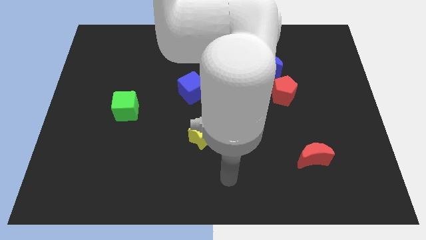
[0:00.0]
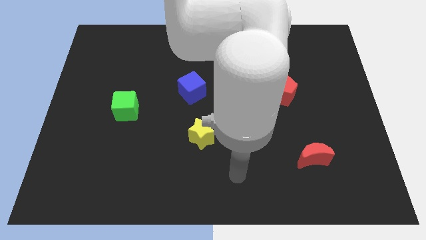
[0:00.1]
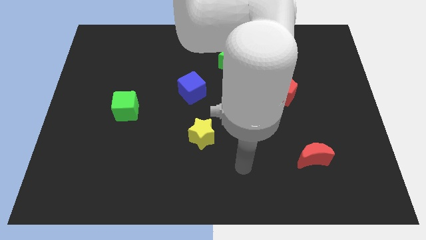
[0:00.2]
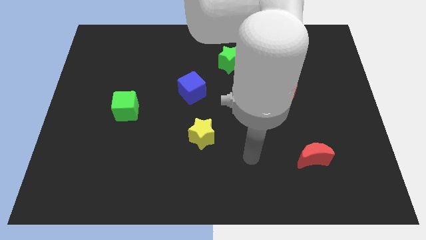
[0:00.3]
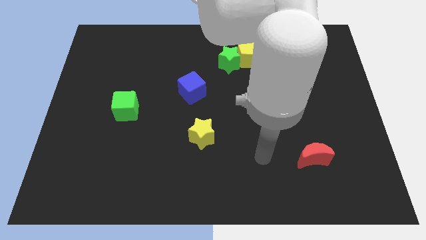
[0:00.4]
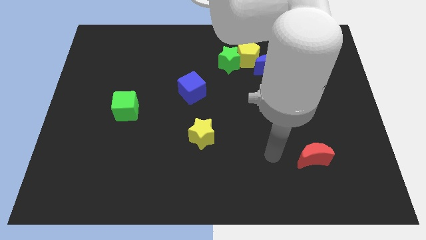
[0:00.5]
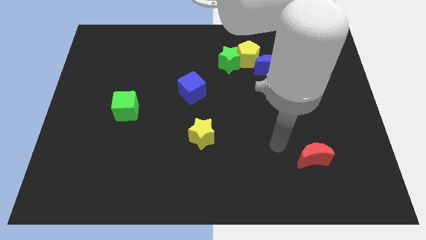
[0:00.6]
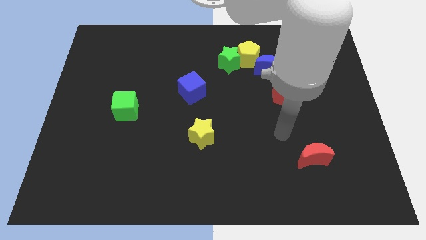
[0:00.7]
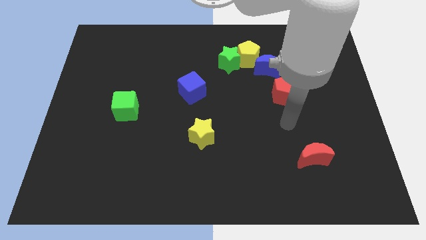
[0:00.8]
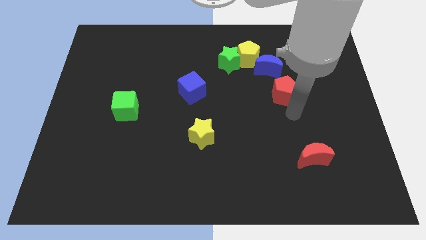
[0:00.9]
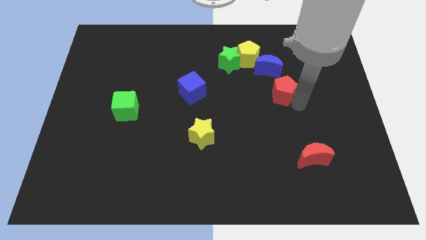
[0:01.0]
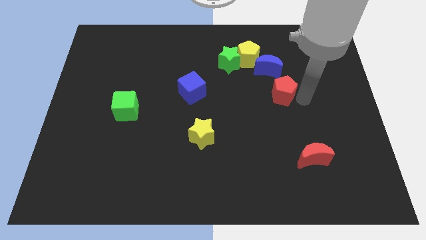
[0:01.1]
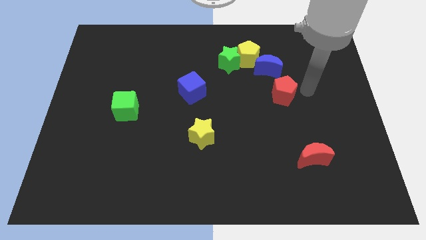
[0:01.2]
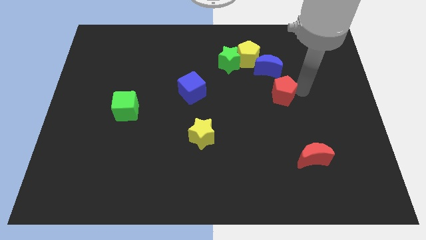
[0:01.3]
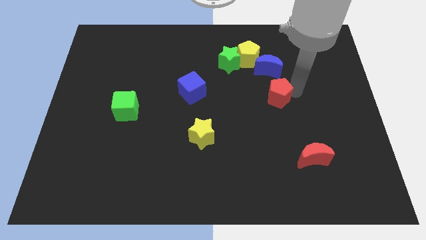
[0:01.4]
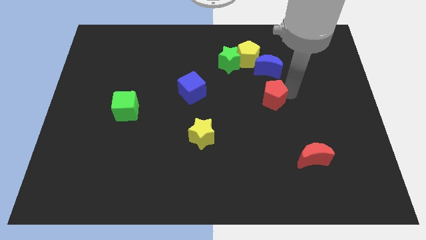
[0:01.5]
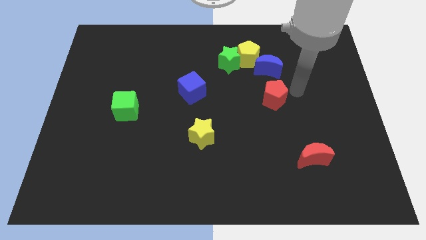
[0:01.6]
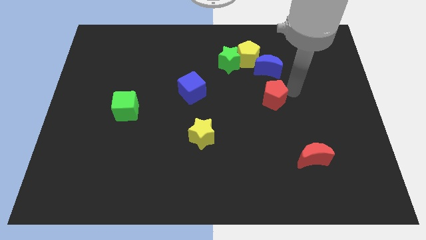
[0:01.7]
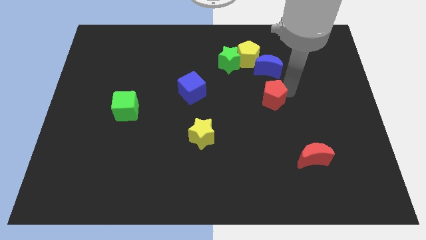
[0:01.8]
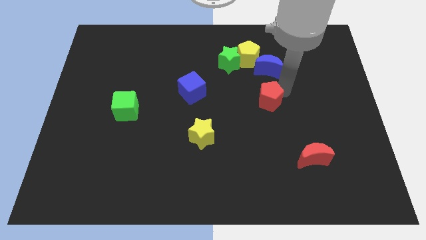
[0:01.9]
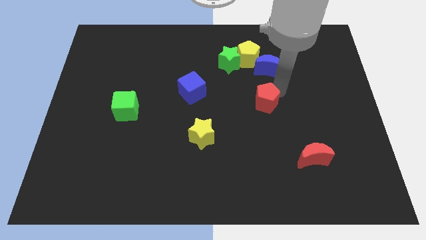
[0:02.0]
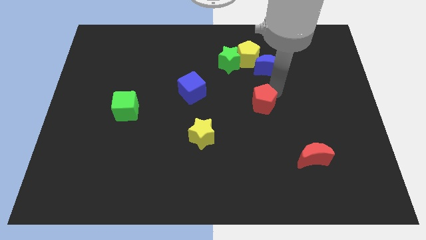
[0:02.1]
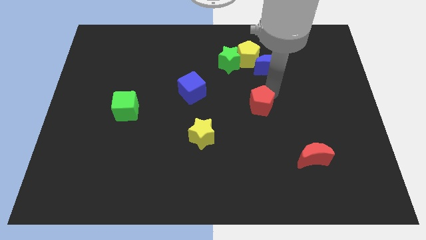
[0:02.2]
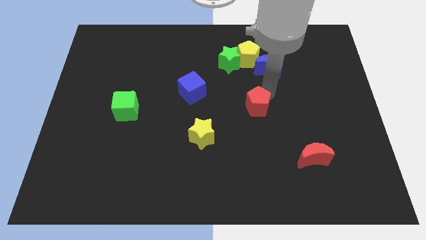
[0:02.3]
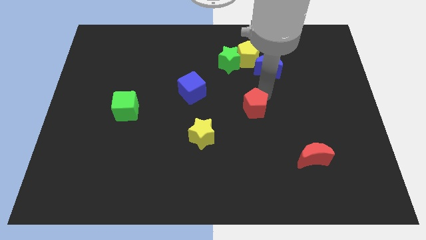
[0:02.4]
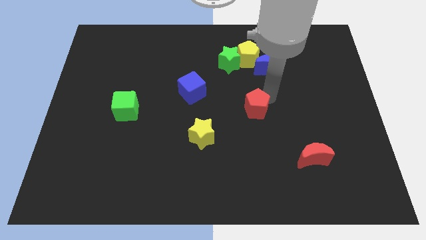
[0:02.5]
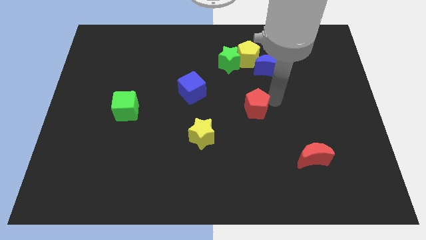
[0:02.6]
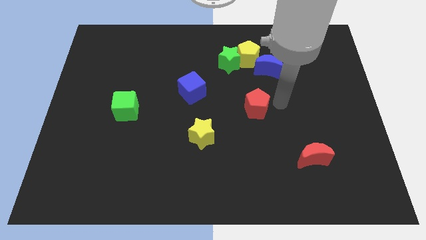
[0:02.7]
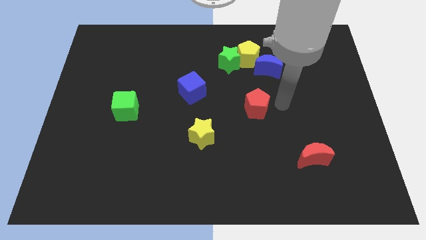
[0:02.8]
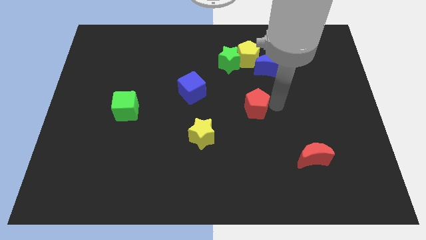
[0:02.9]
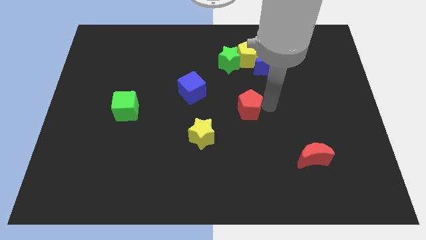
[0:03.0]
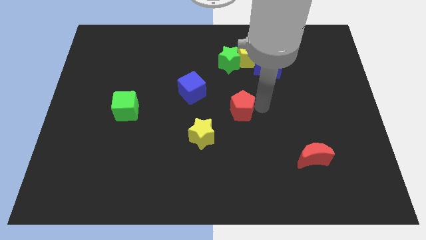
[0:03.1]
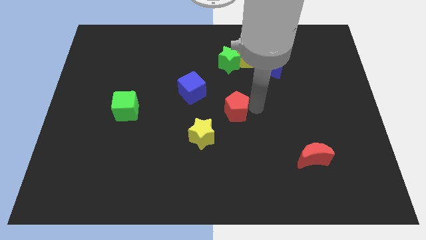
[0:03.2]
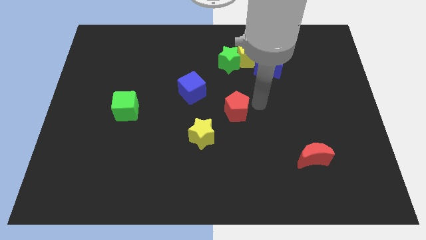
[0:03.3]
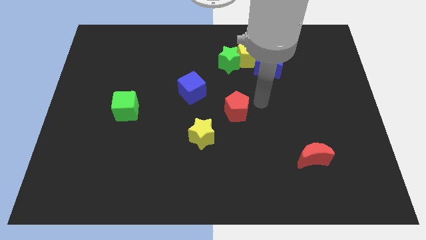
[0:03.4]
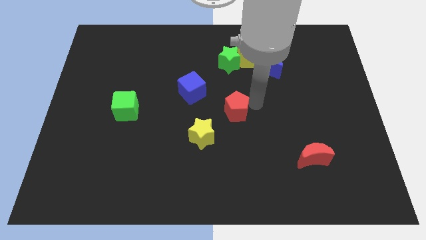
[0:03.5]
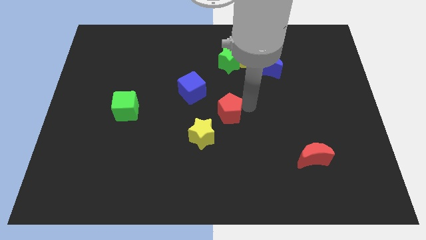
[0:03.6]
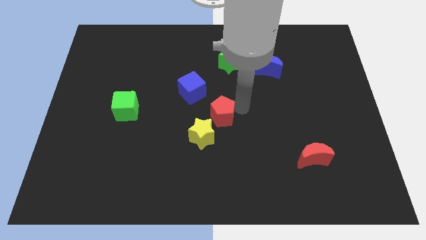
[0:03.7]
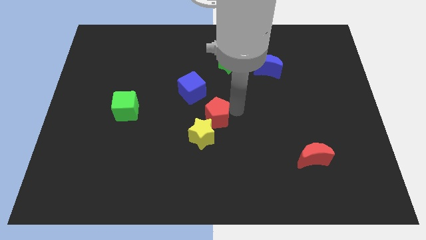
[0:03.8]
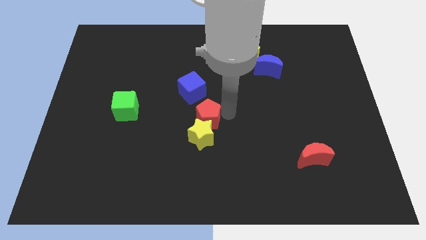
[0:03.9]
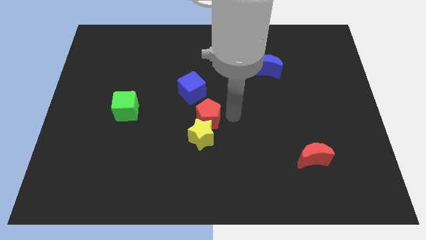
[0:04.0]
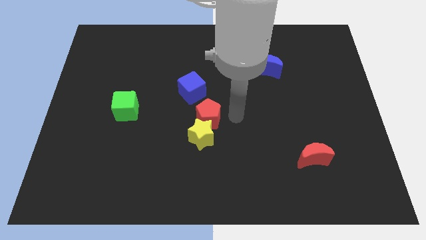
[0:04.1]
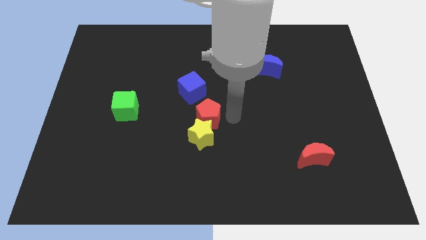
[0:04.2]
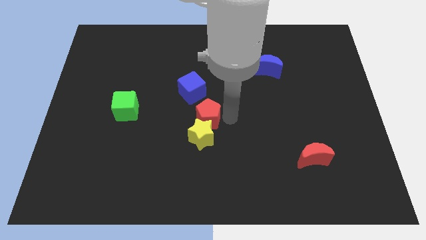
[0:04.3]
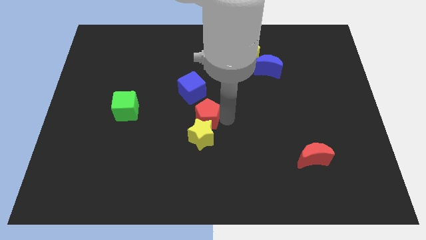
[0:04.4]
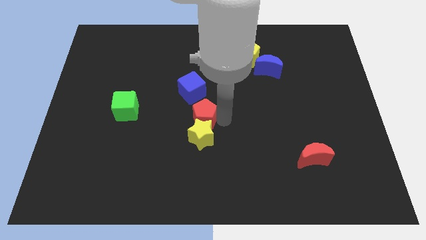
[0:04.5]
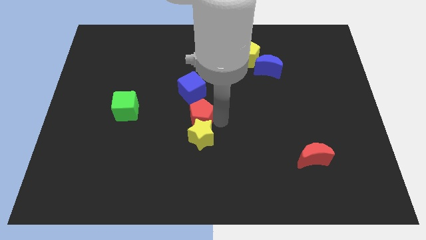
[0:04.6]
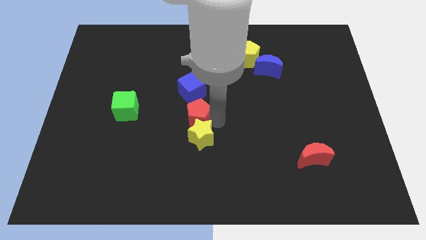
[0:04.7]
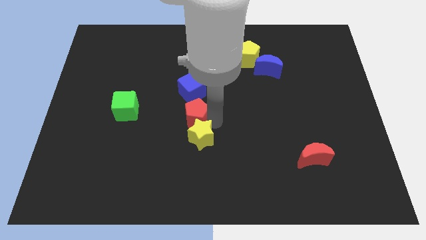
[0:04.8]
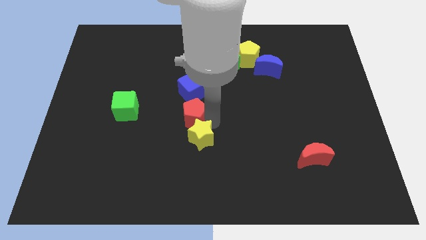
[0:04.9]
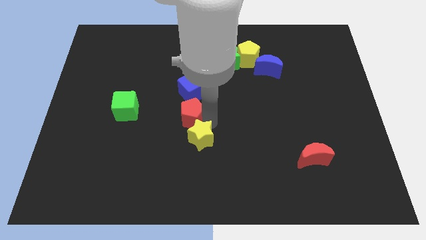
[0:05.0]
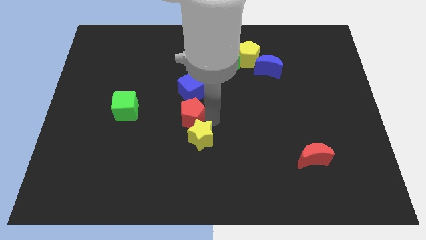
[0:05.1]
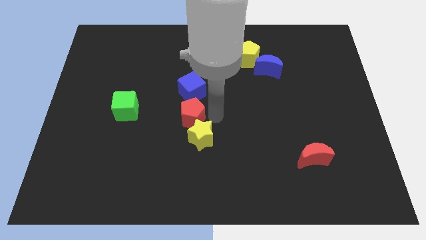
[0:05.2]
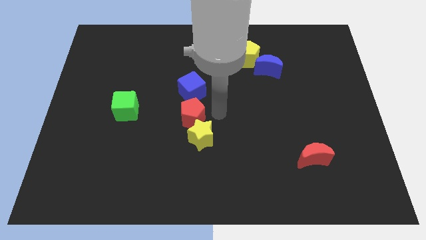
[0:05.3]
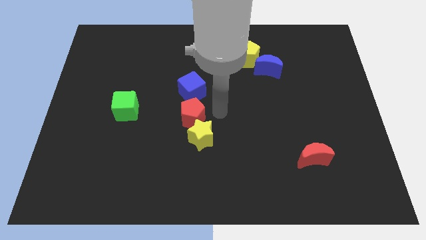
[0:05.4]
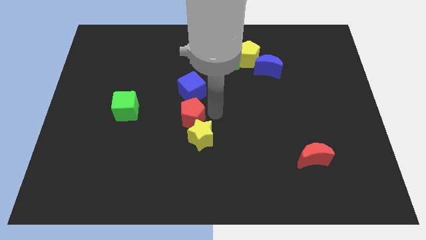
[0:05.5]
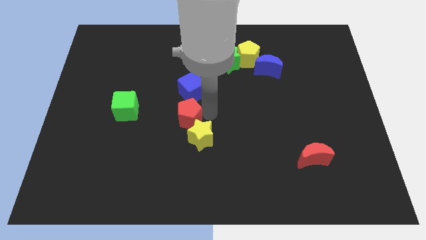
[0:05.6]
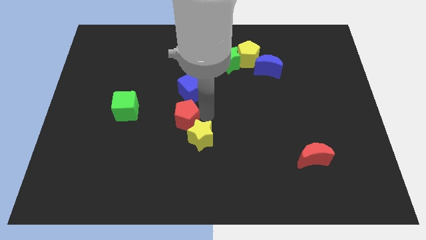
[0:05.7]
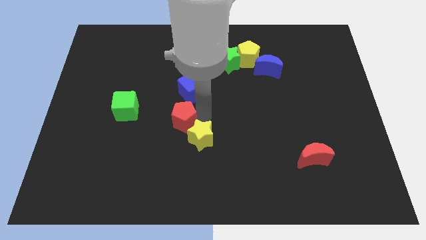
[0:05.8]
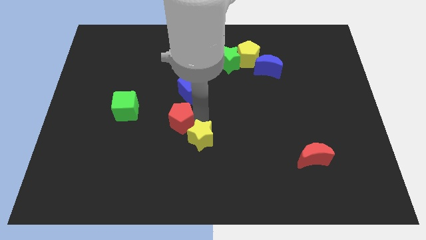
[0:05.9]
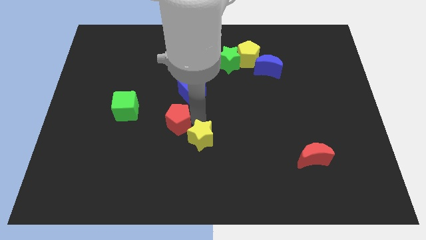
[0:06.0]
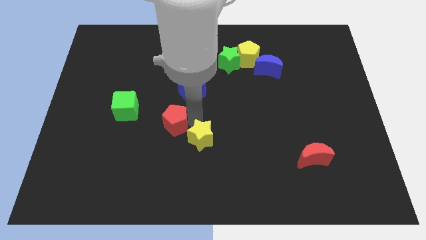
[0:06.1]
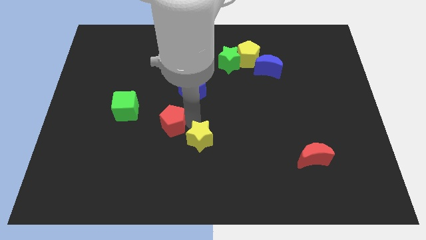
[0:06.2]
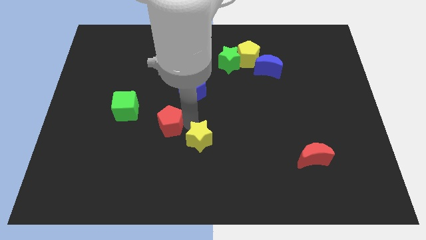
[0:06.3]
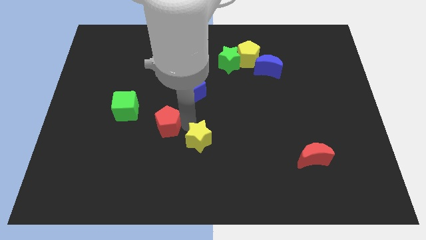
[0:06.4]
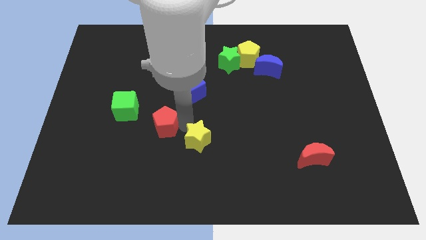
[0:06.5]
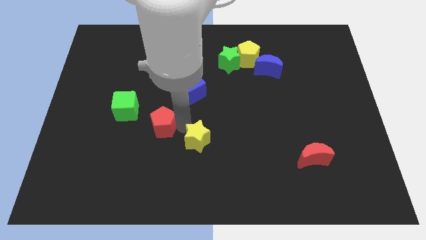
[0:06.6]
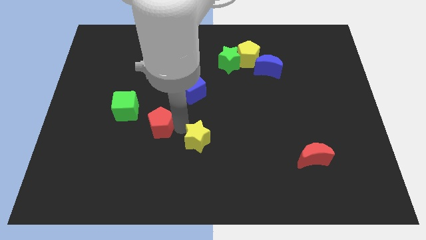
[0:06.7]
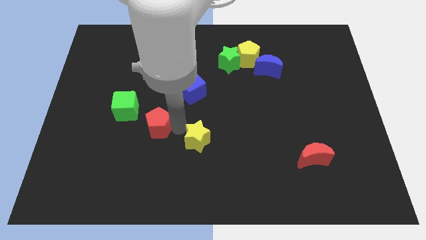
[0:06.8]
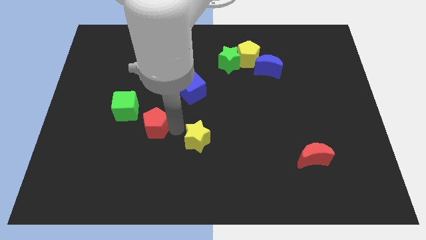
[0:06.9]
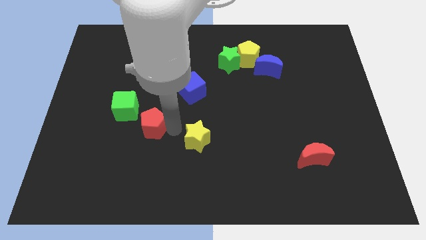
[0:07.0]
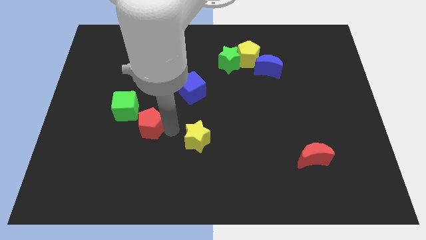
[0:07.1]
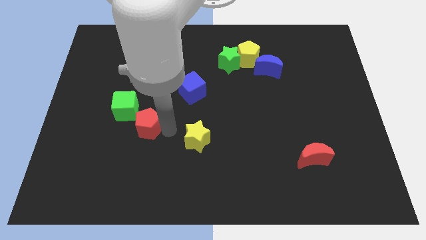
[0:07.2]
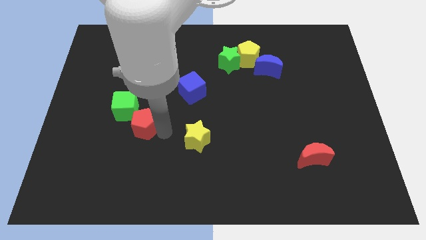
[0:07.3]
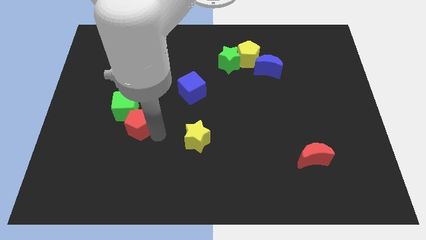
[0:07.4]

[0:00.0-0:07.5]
move the red pentagon next to the green cube

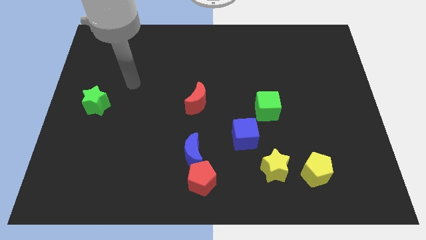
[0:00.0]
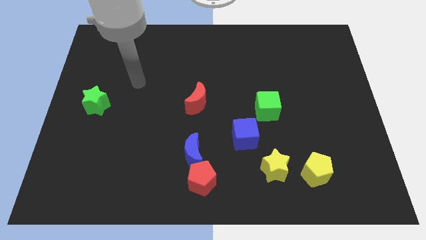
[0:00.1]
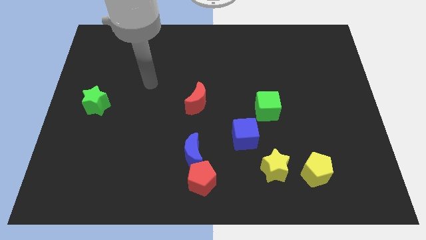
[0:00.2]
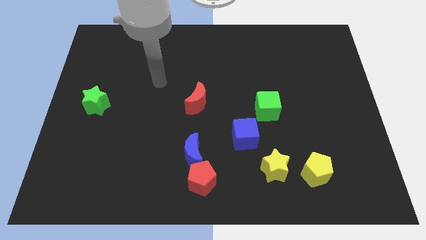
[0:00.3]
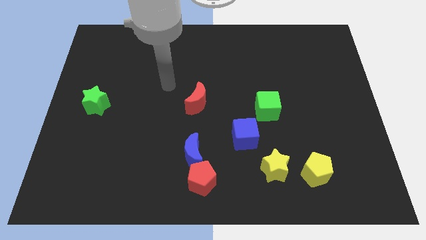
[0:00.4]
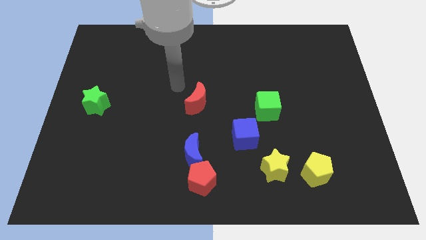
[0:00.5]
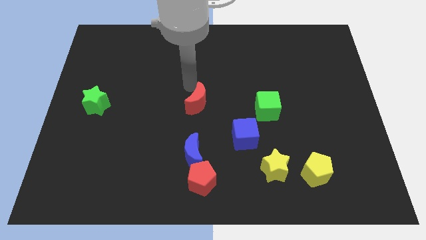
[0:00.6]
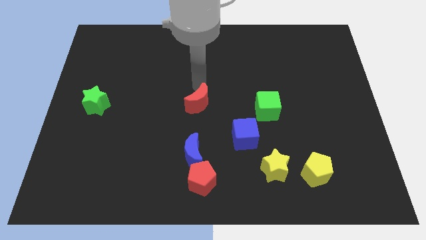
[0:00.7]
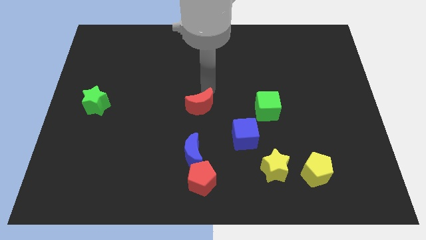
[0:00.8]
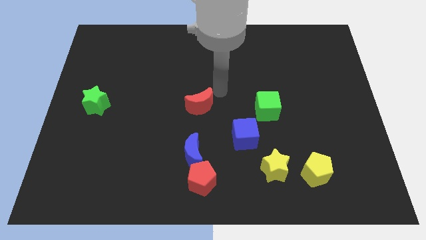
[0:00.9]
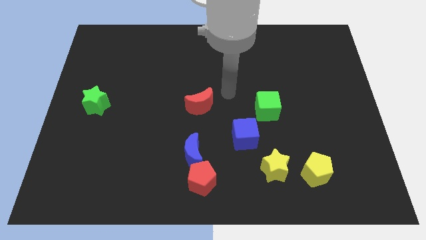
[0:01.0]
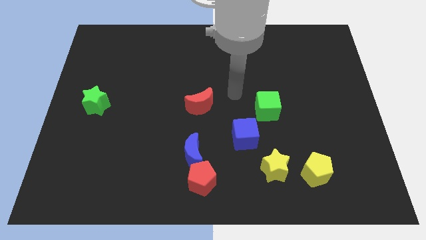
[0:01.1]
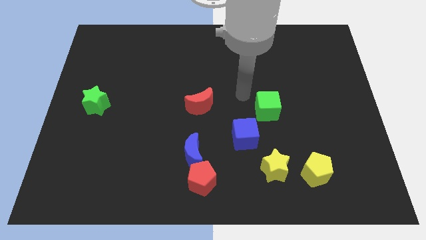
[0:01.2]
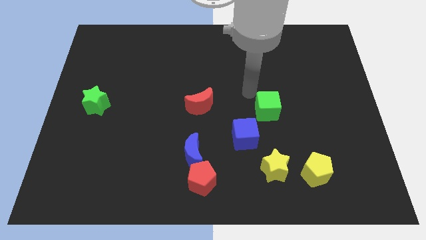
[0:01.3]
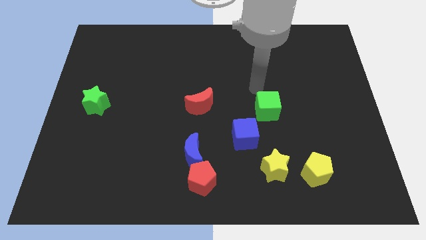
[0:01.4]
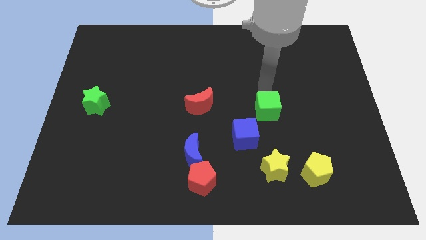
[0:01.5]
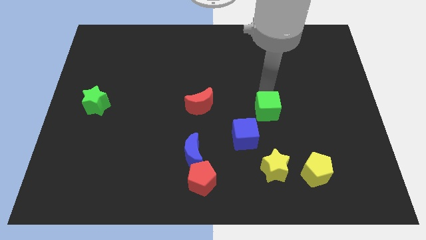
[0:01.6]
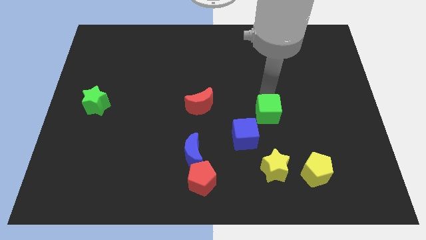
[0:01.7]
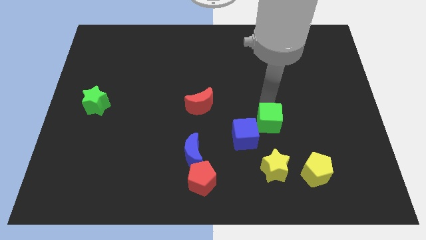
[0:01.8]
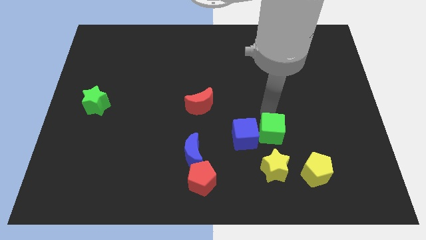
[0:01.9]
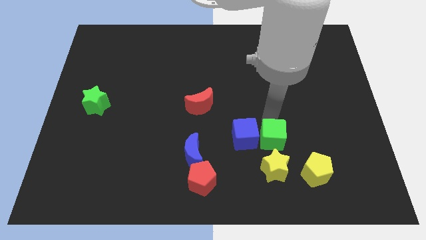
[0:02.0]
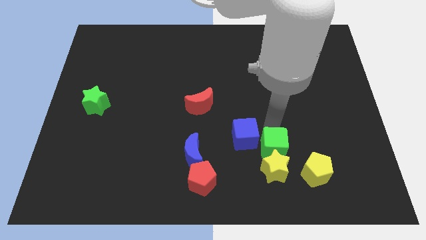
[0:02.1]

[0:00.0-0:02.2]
slide the green cube next to the yellow star
